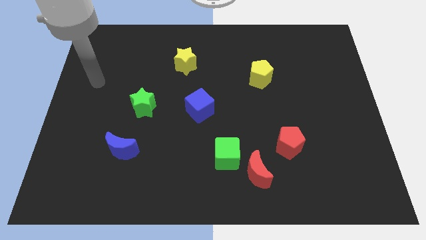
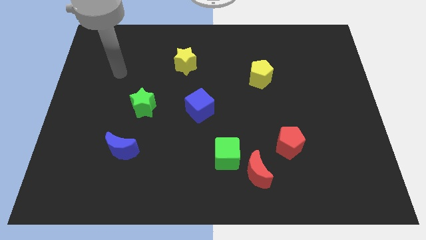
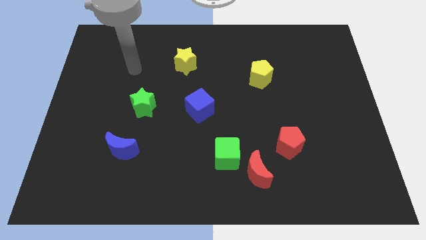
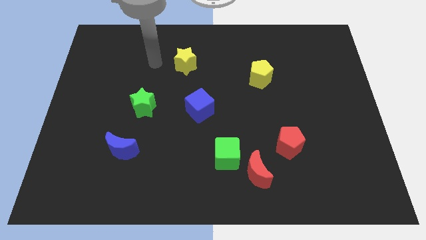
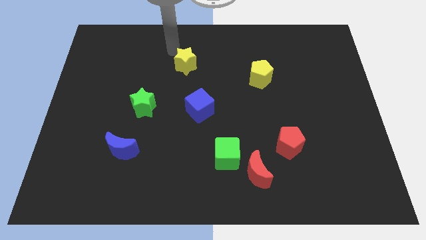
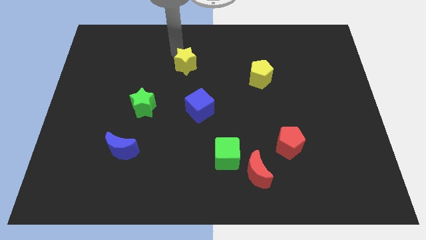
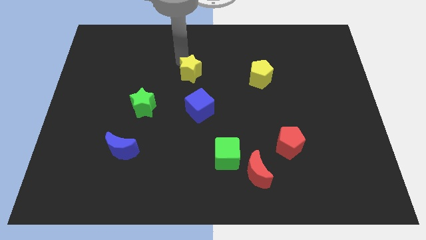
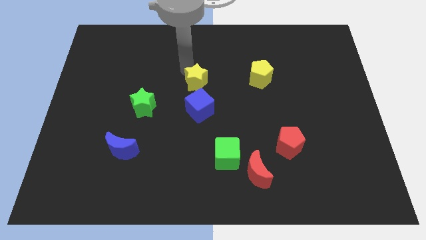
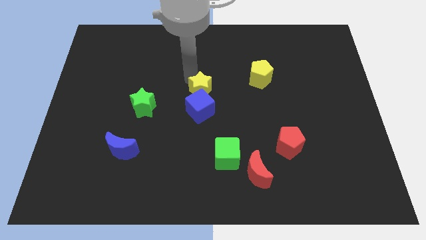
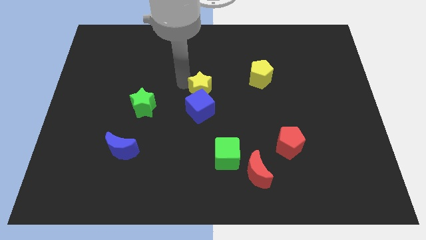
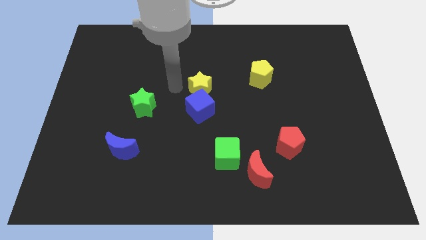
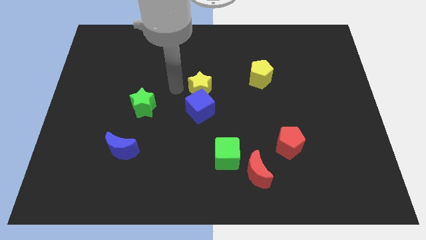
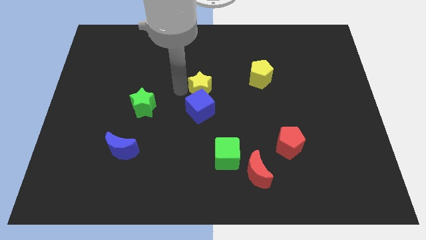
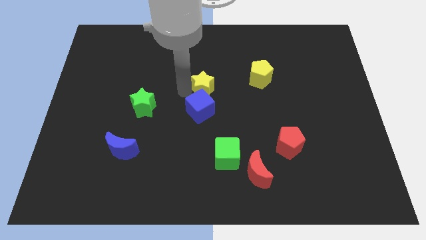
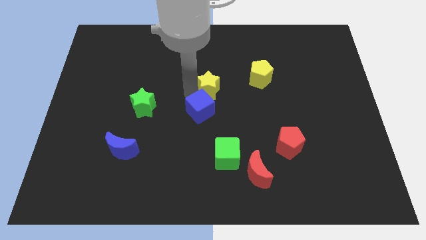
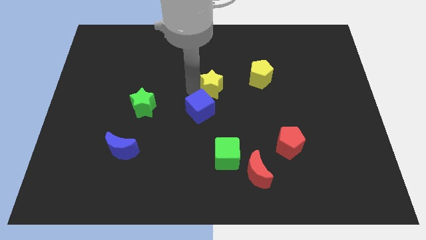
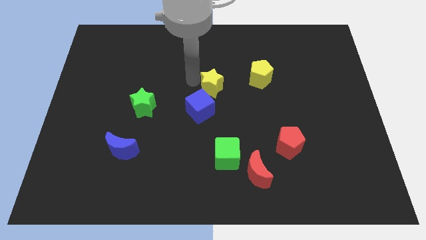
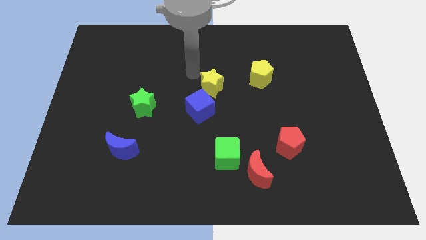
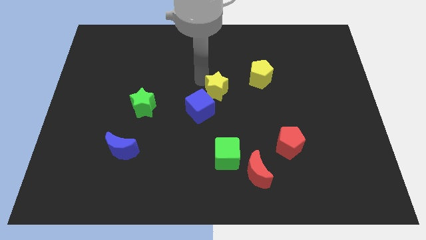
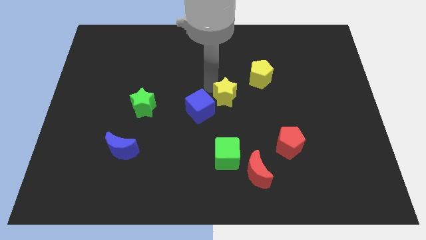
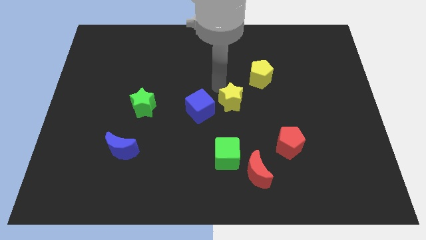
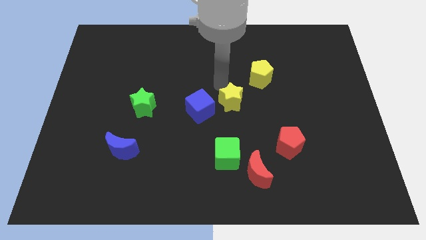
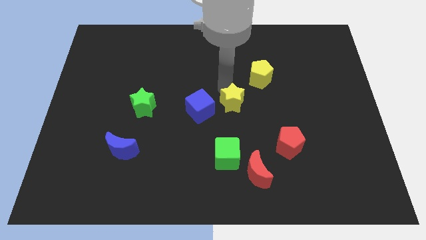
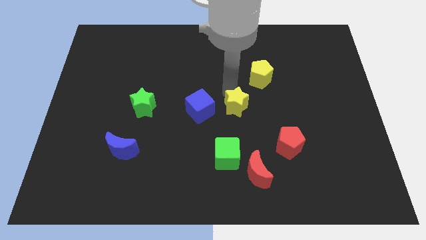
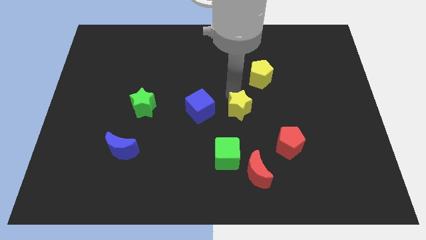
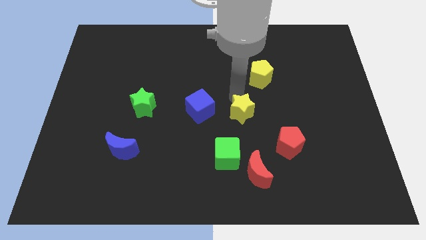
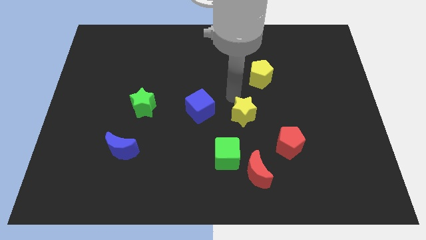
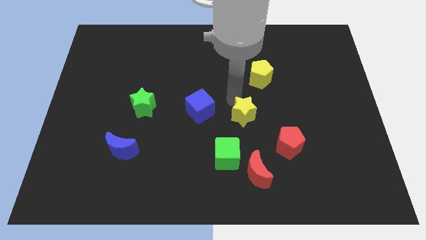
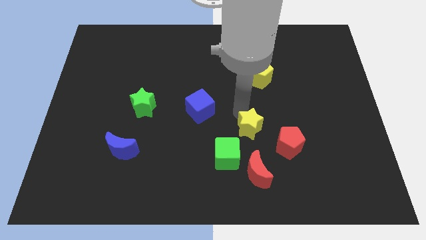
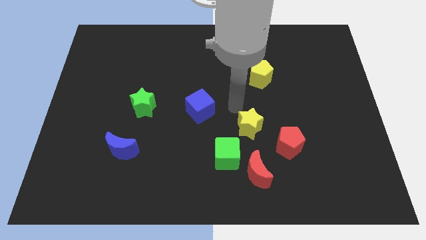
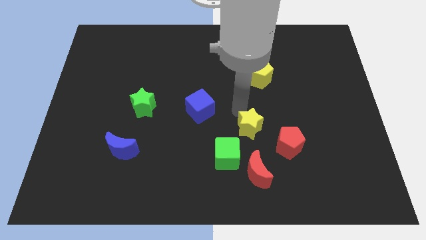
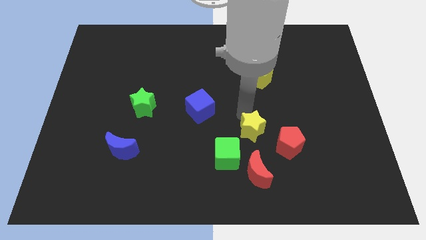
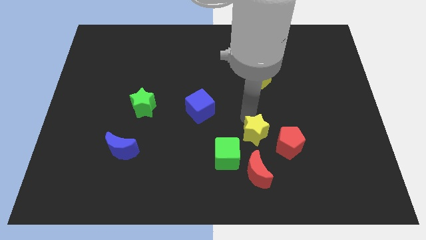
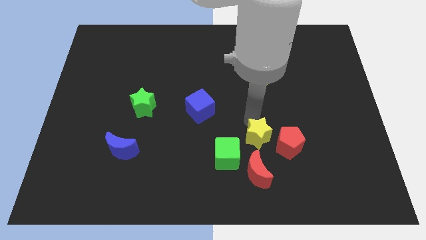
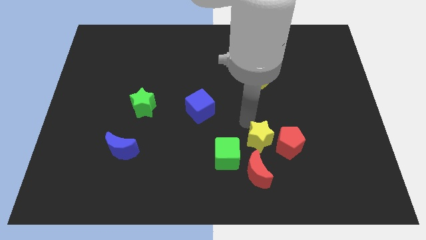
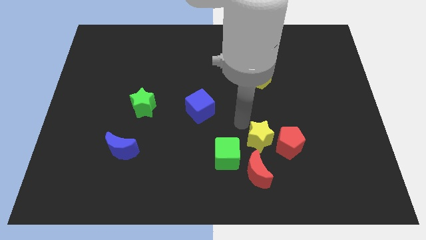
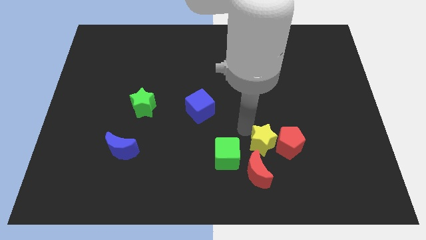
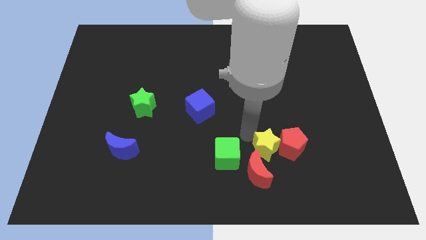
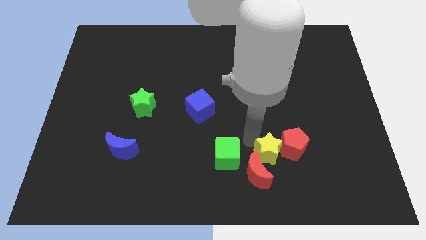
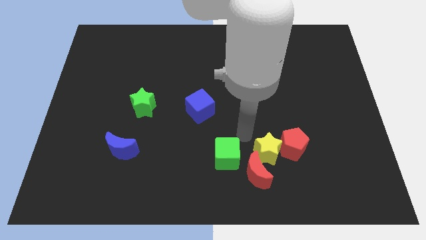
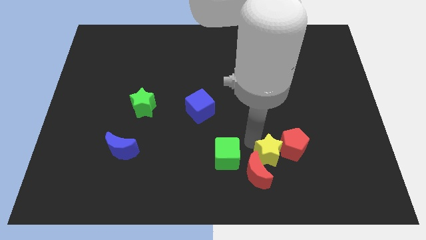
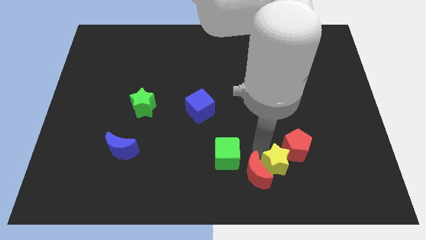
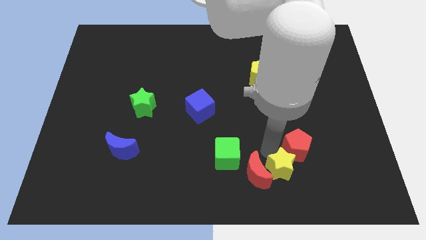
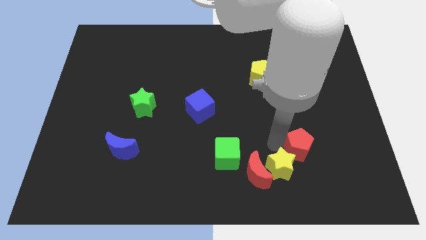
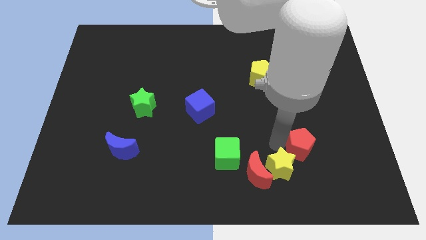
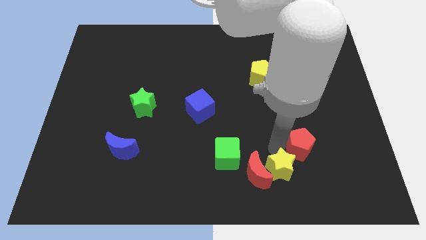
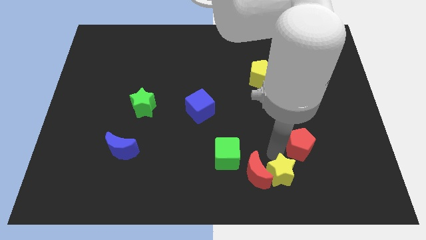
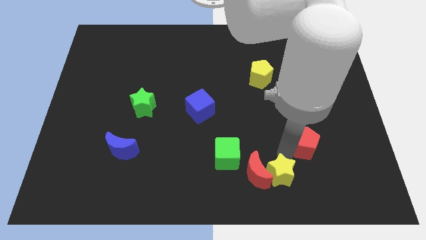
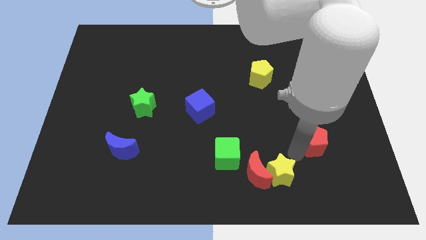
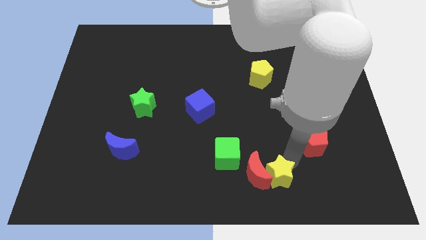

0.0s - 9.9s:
move the yellow star to the bottom right side of the green cube

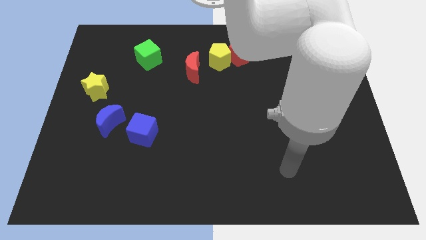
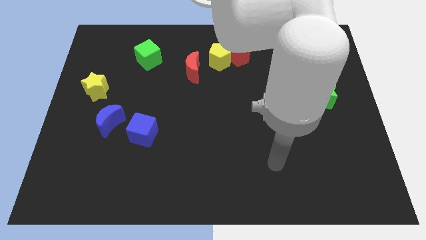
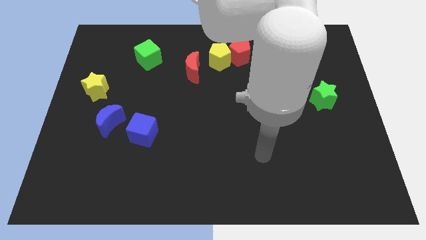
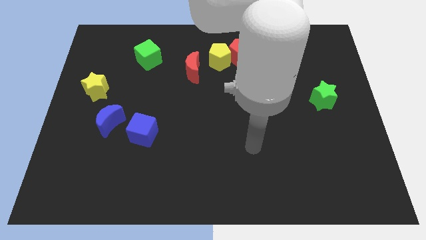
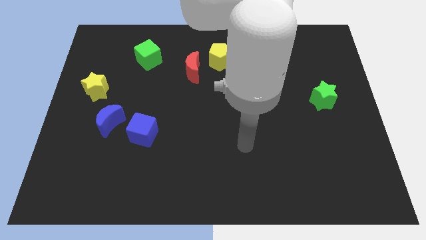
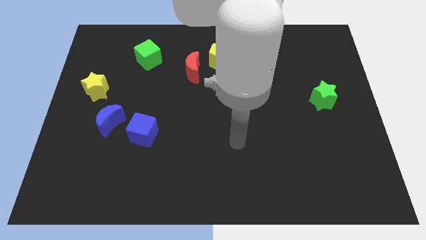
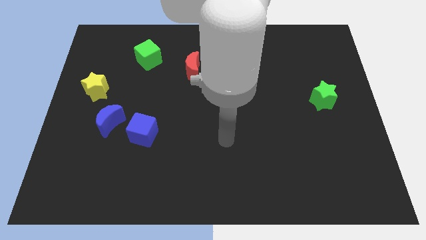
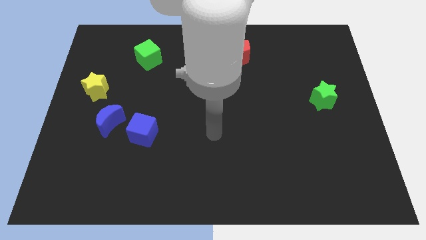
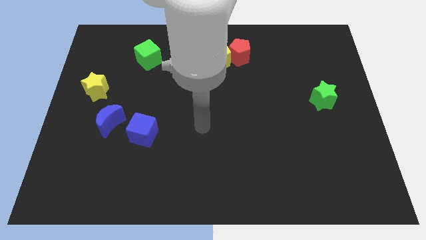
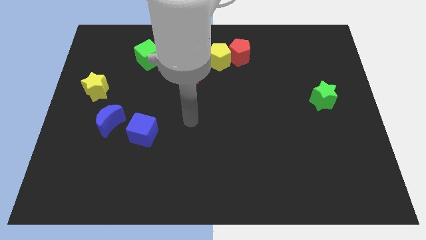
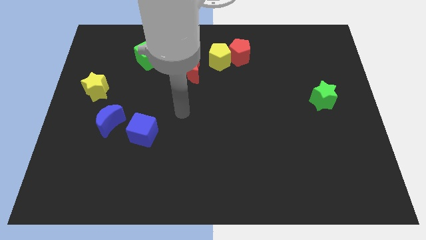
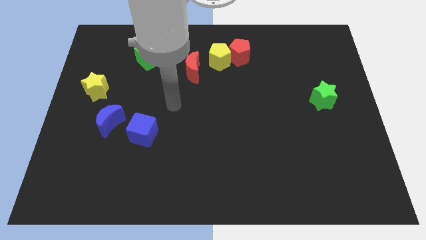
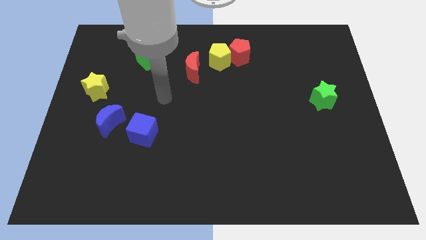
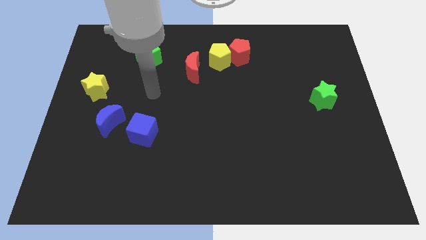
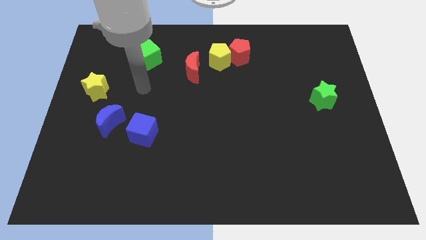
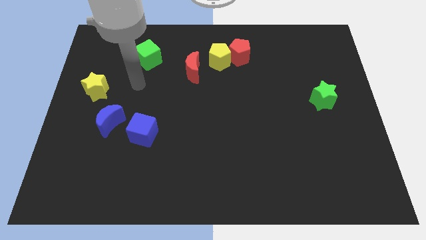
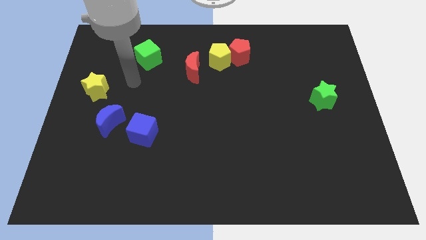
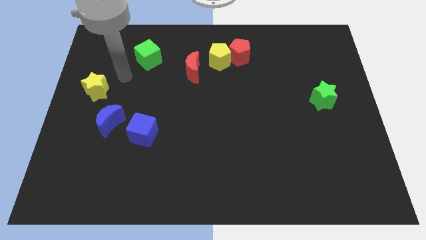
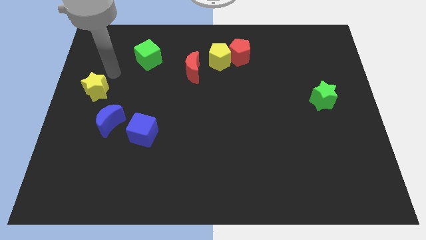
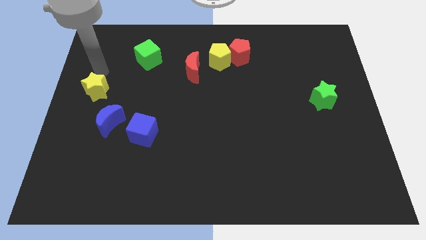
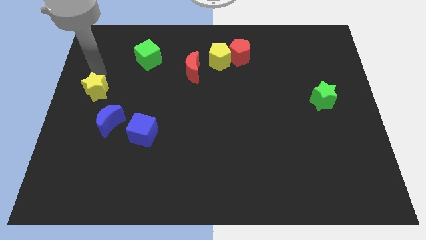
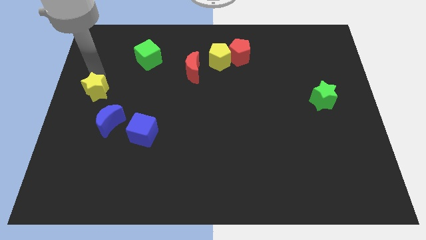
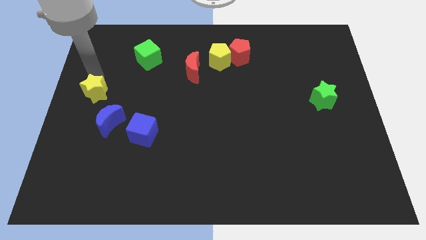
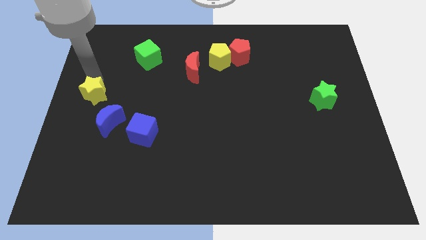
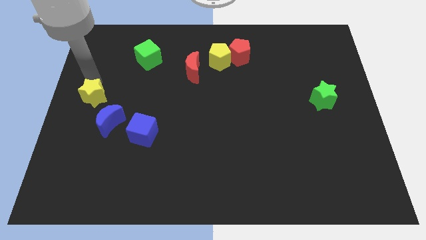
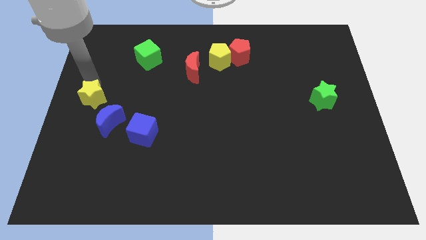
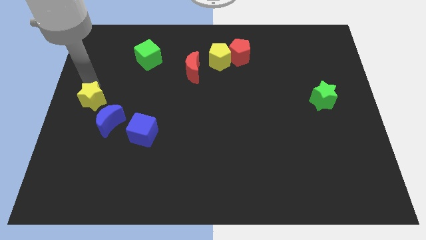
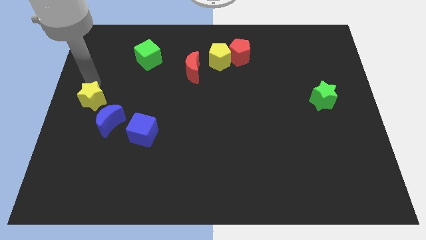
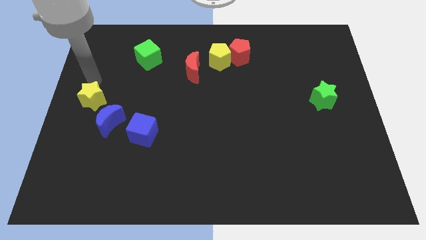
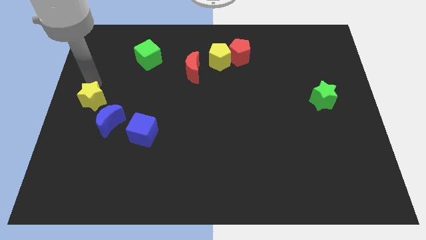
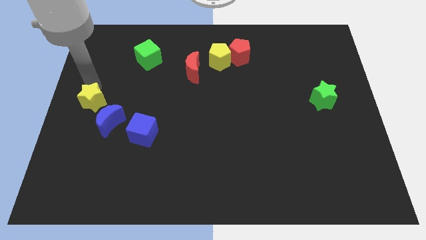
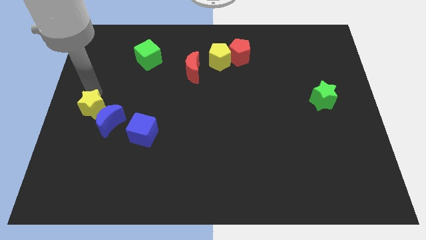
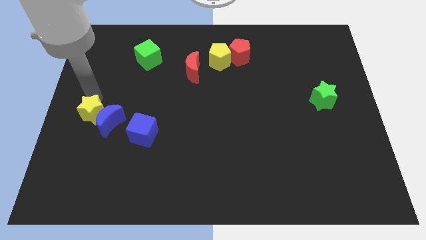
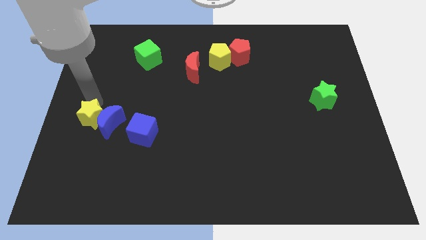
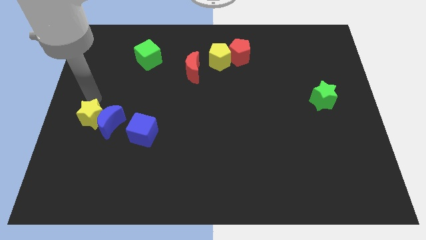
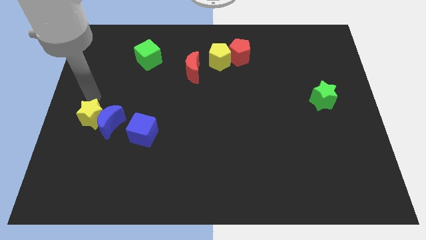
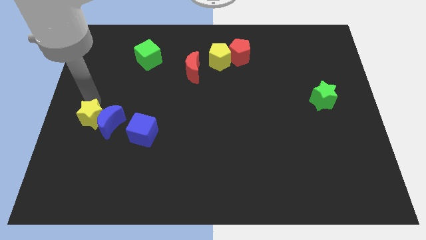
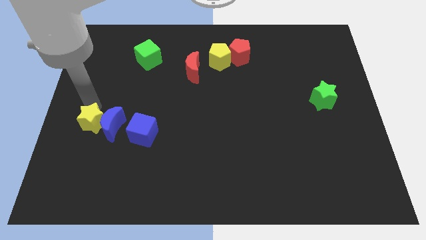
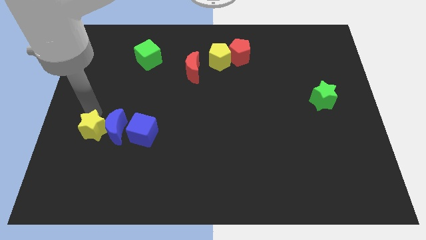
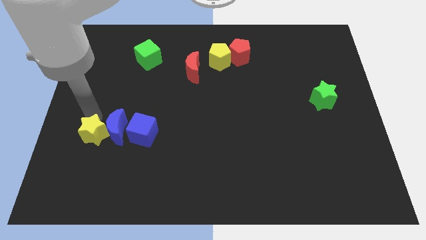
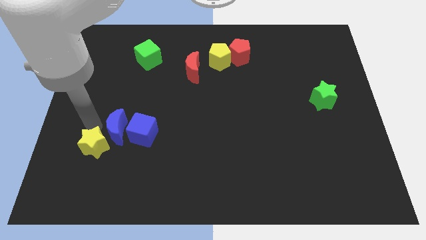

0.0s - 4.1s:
put the yellow star below the blue moon
